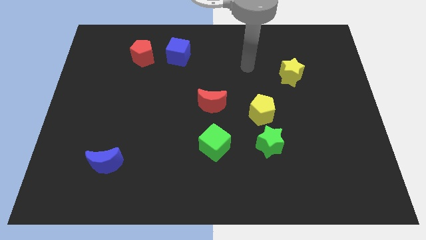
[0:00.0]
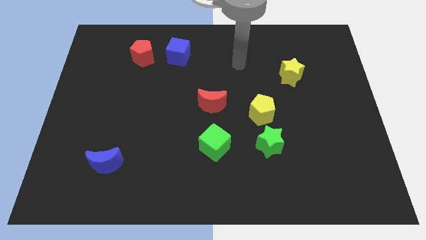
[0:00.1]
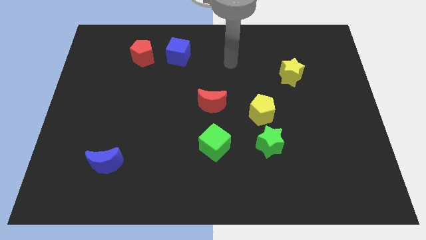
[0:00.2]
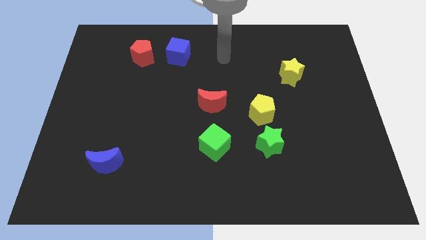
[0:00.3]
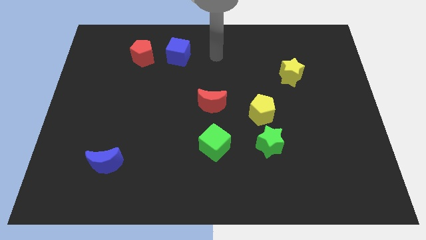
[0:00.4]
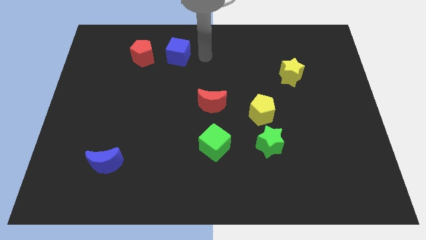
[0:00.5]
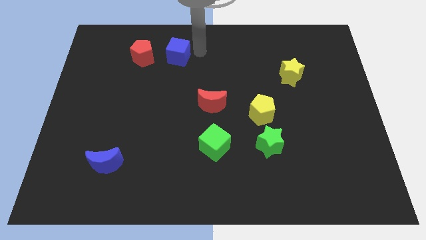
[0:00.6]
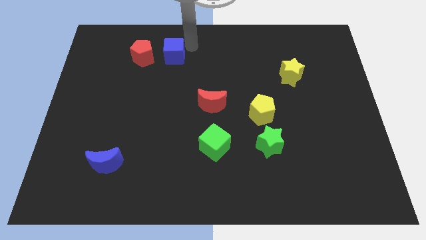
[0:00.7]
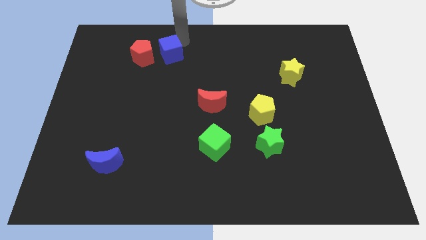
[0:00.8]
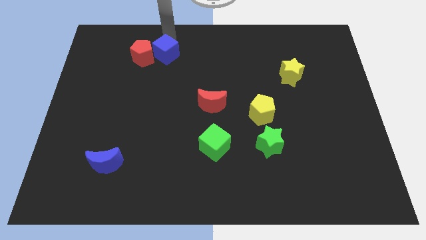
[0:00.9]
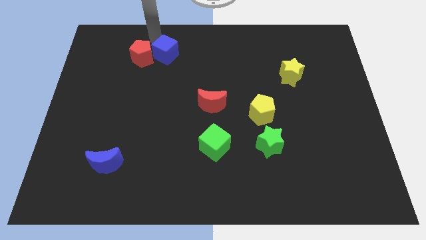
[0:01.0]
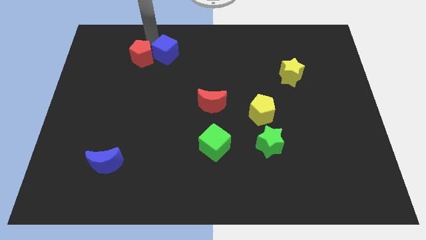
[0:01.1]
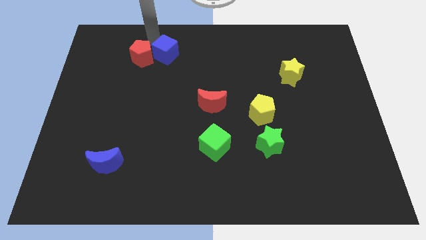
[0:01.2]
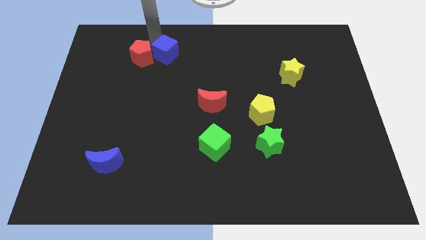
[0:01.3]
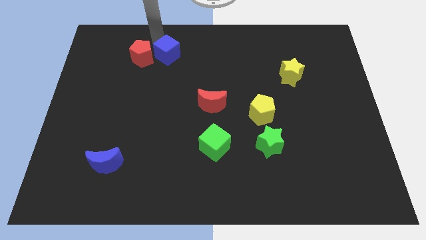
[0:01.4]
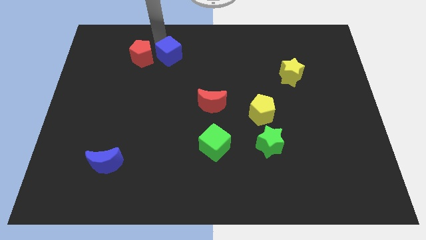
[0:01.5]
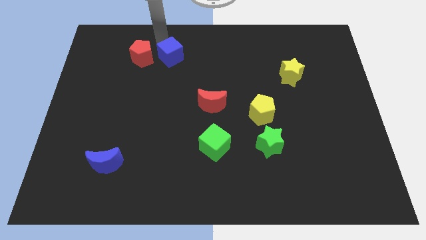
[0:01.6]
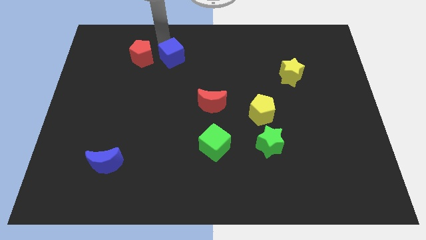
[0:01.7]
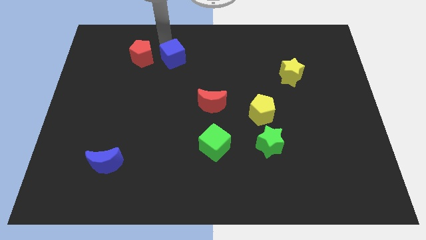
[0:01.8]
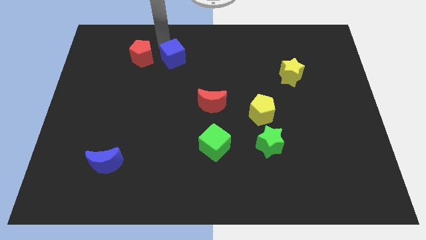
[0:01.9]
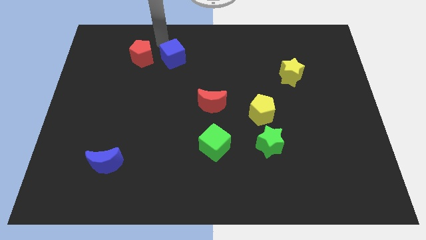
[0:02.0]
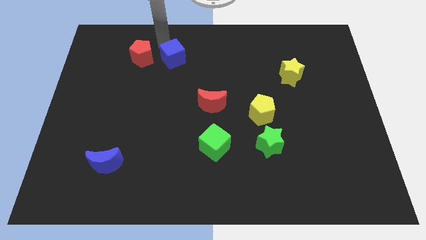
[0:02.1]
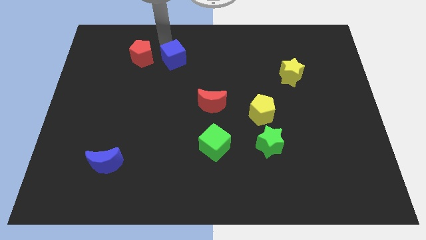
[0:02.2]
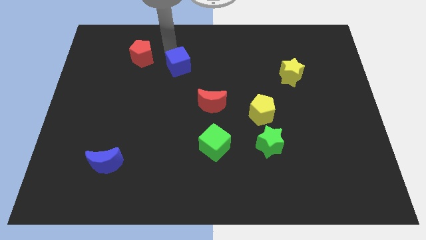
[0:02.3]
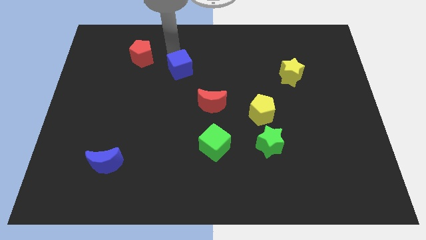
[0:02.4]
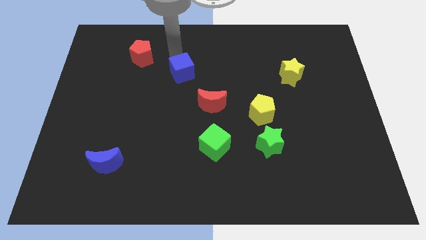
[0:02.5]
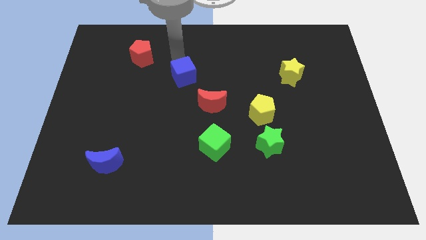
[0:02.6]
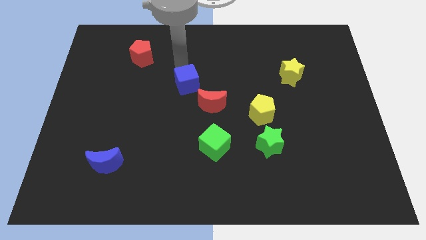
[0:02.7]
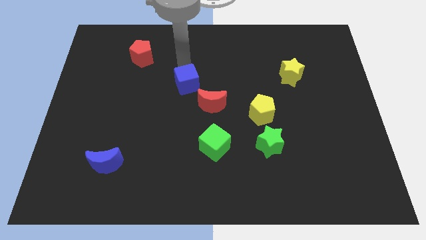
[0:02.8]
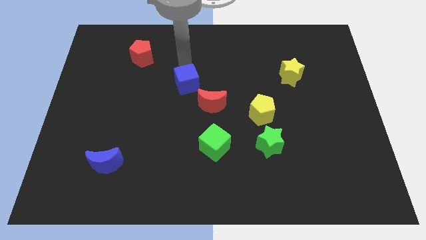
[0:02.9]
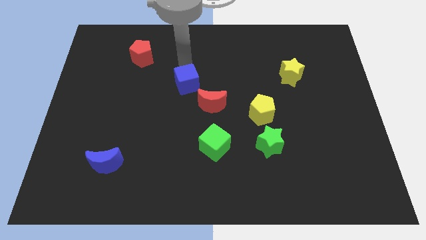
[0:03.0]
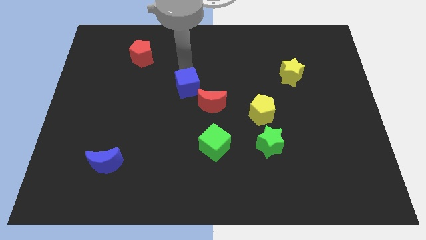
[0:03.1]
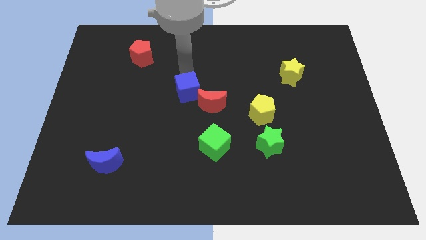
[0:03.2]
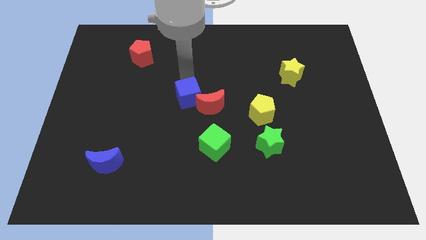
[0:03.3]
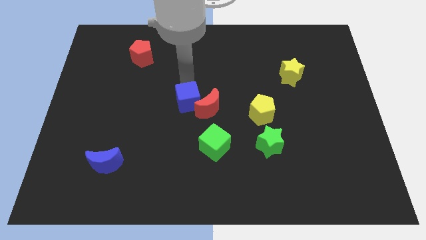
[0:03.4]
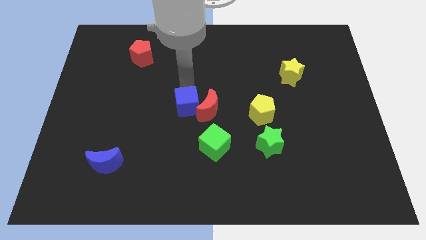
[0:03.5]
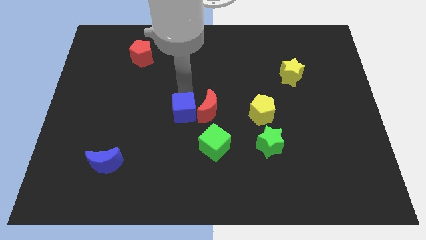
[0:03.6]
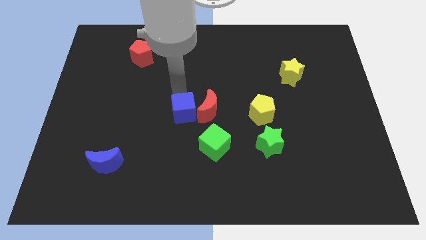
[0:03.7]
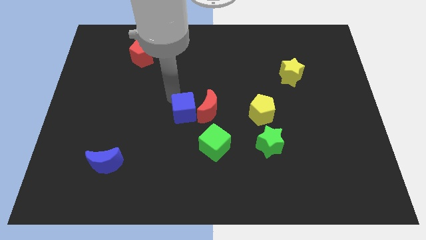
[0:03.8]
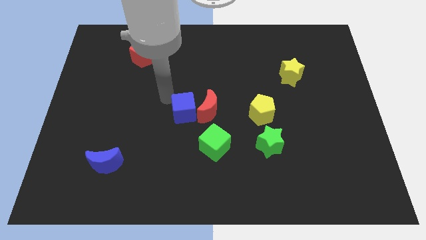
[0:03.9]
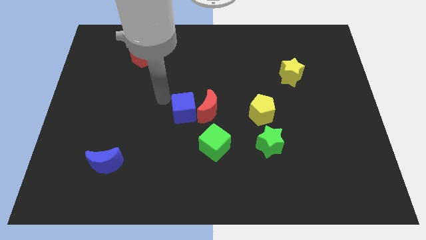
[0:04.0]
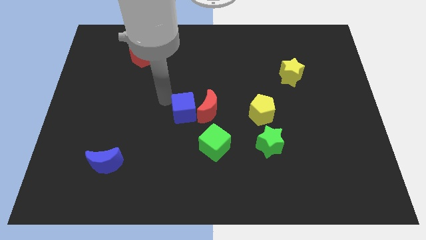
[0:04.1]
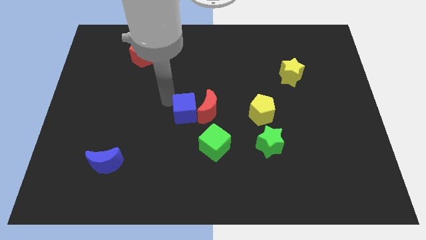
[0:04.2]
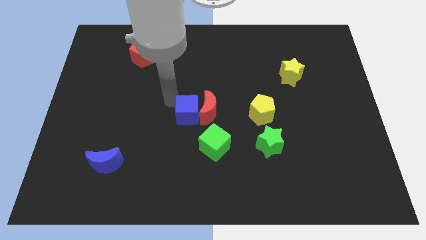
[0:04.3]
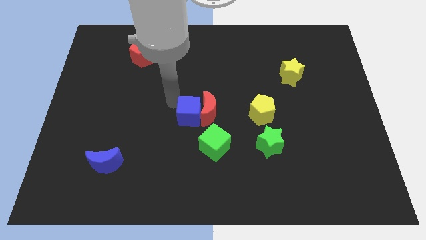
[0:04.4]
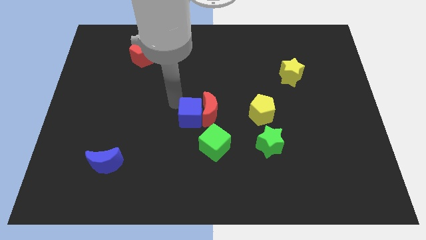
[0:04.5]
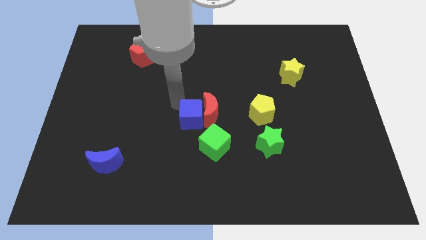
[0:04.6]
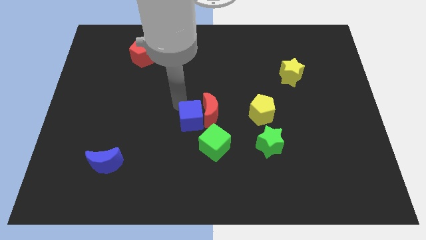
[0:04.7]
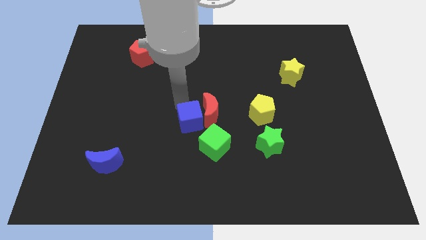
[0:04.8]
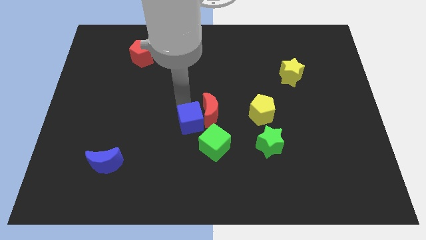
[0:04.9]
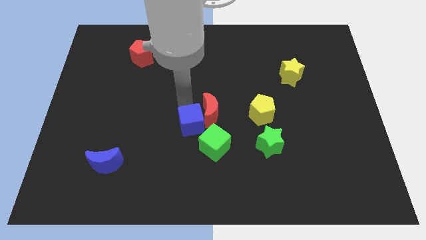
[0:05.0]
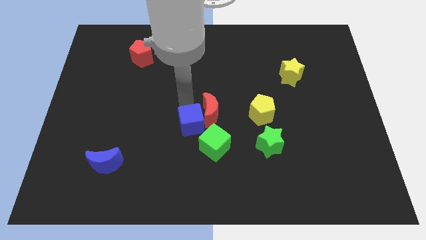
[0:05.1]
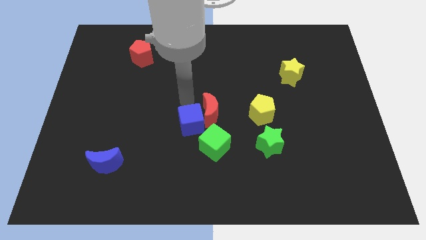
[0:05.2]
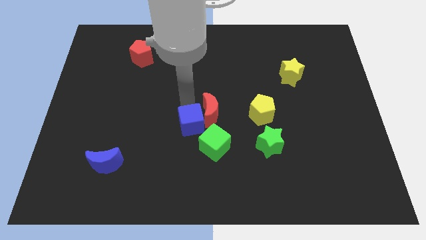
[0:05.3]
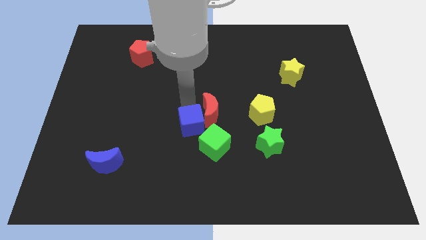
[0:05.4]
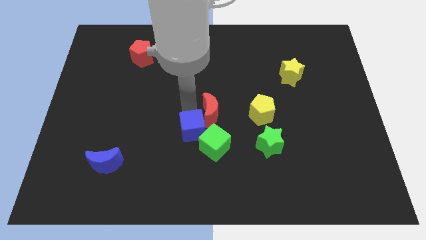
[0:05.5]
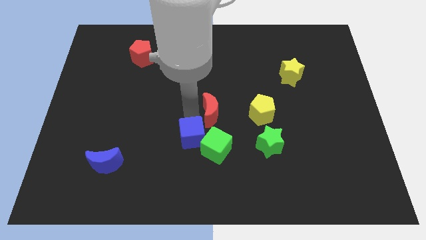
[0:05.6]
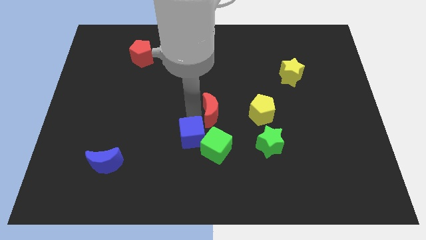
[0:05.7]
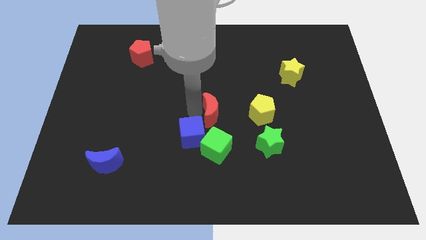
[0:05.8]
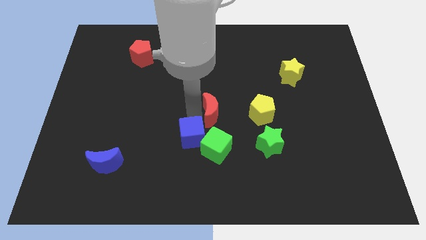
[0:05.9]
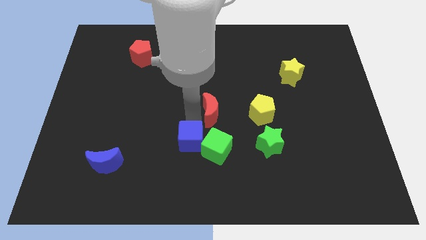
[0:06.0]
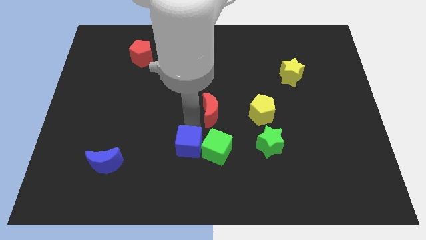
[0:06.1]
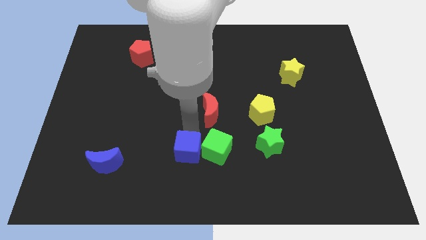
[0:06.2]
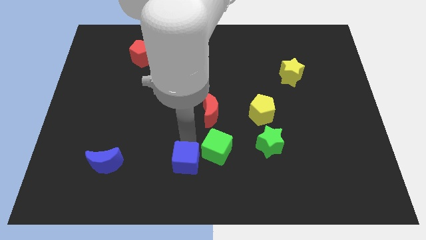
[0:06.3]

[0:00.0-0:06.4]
push the blue cube to the bottom side
